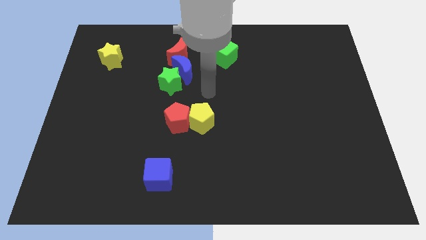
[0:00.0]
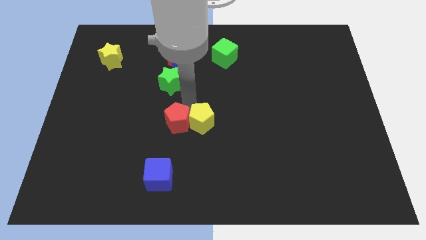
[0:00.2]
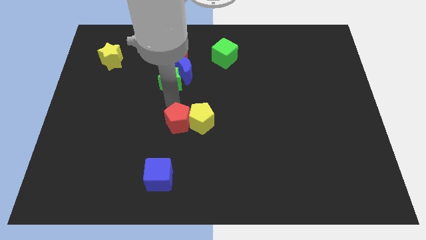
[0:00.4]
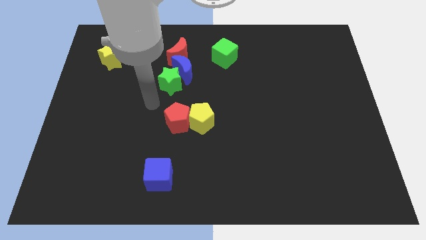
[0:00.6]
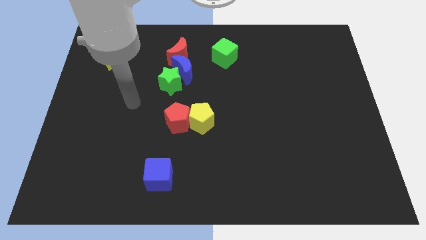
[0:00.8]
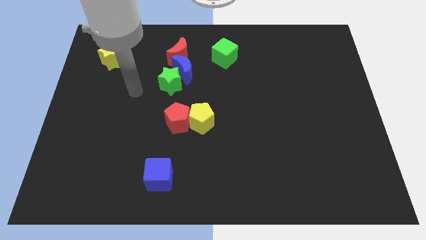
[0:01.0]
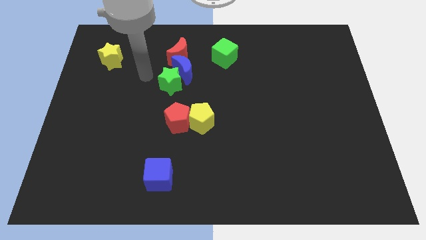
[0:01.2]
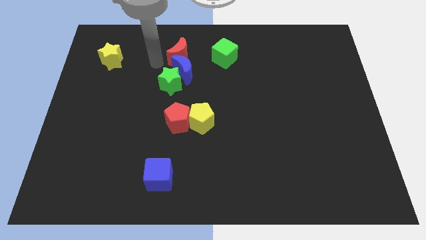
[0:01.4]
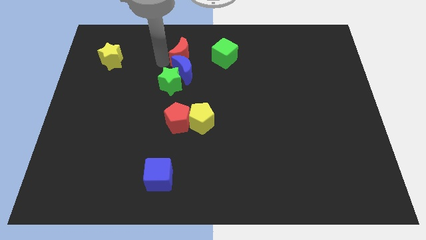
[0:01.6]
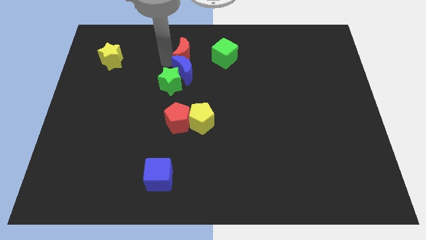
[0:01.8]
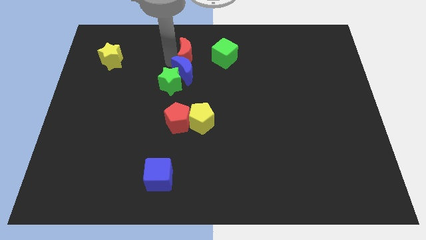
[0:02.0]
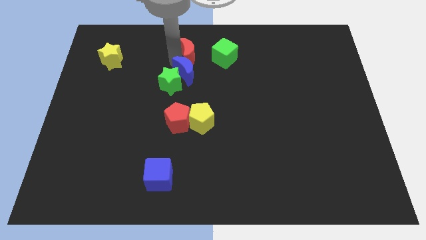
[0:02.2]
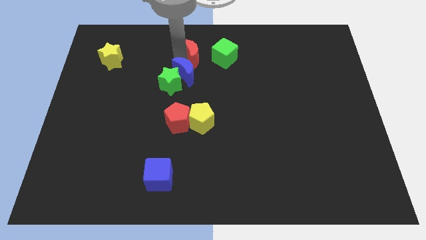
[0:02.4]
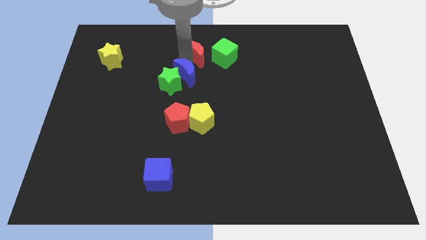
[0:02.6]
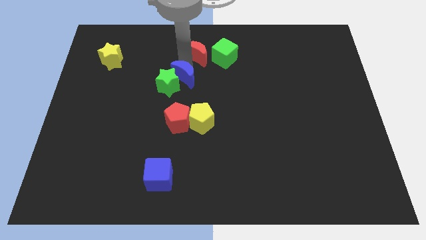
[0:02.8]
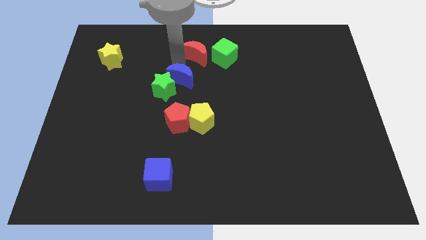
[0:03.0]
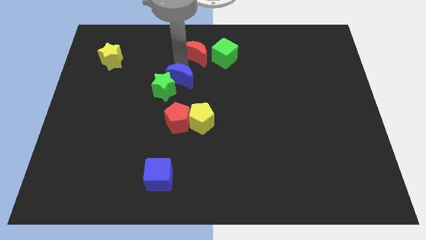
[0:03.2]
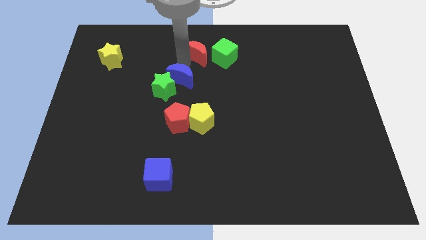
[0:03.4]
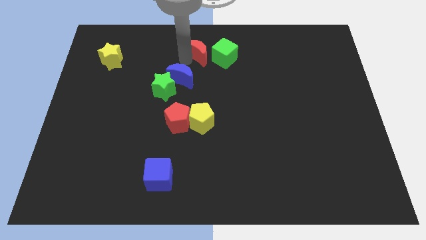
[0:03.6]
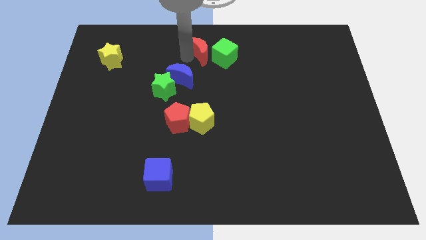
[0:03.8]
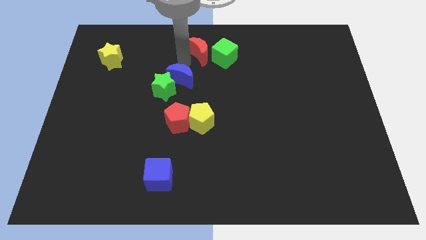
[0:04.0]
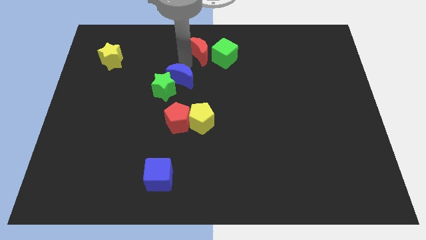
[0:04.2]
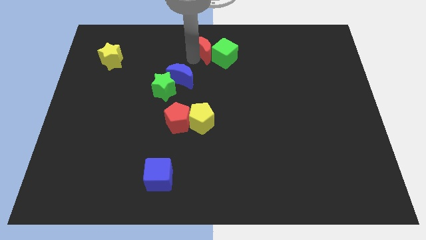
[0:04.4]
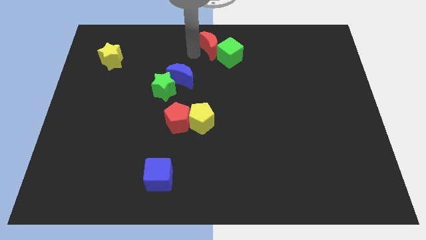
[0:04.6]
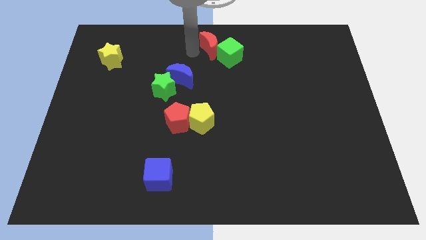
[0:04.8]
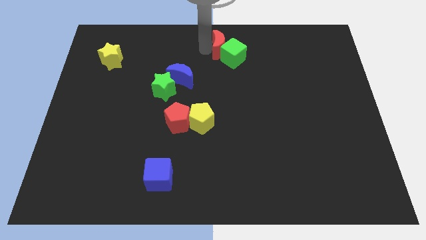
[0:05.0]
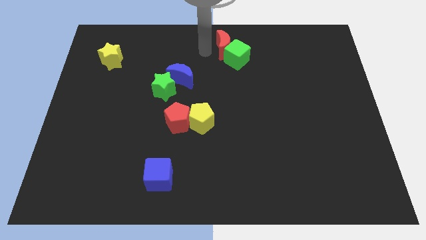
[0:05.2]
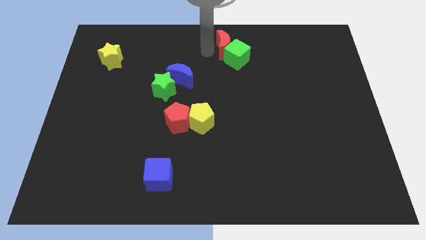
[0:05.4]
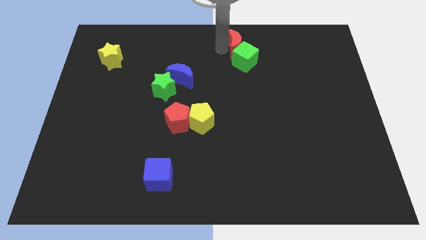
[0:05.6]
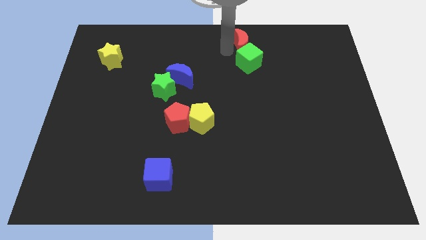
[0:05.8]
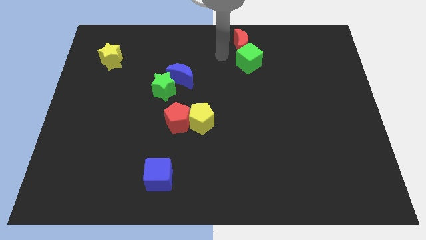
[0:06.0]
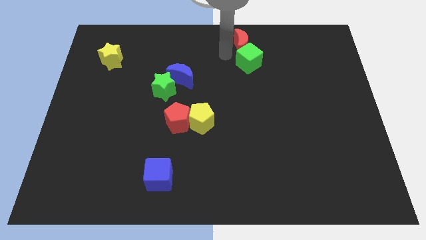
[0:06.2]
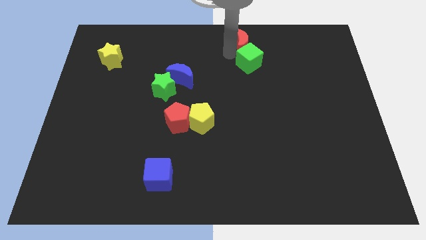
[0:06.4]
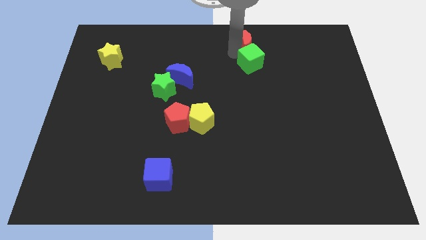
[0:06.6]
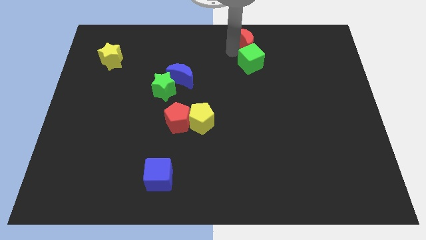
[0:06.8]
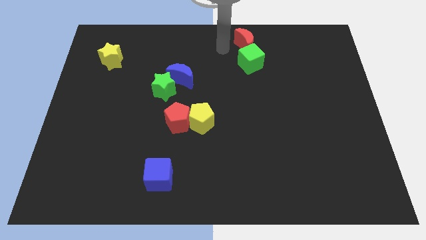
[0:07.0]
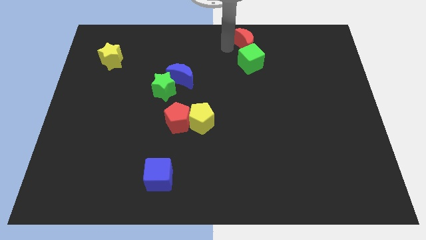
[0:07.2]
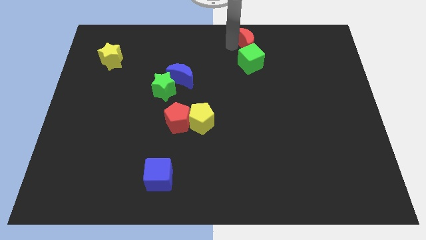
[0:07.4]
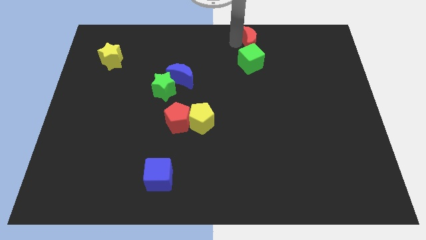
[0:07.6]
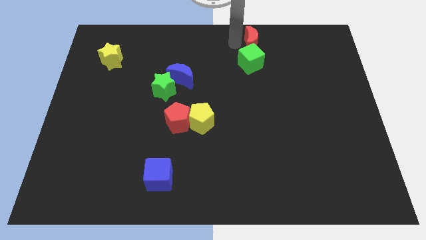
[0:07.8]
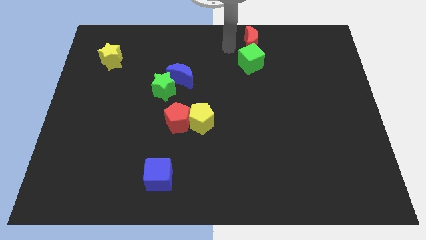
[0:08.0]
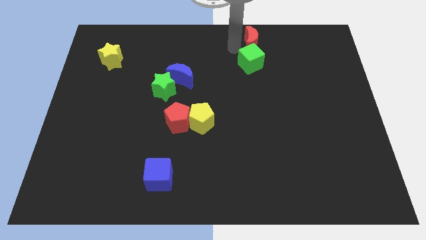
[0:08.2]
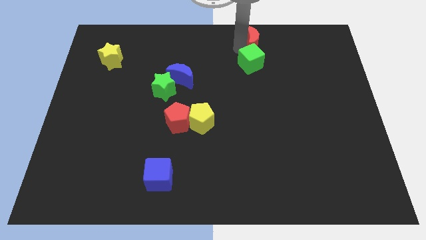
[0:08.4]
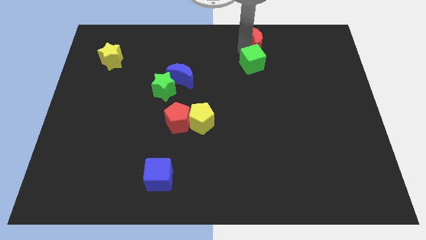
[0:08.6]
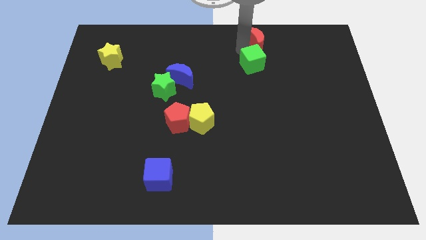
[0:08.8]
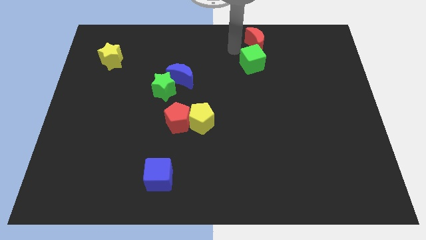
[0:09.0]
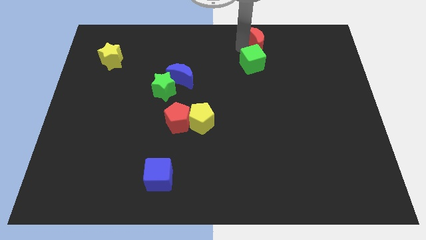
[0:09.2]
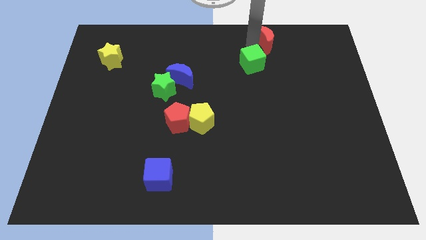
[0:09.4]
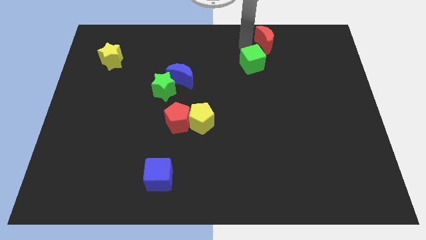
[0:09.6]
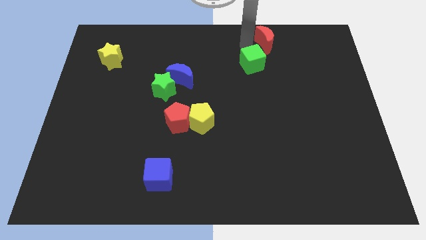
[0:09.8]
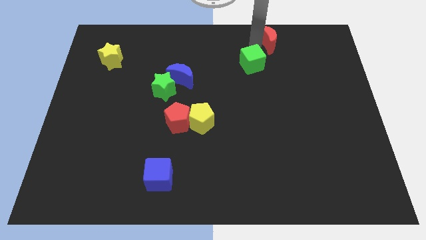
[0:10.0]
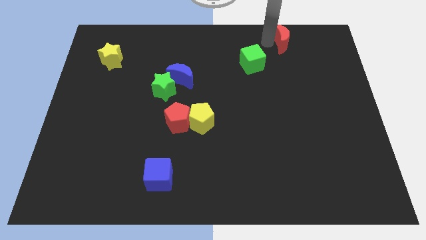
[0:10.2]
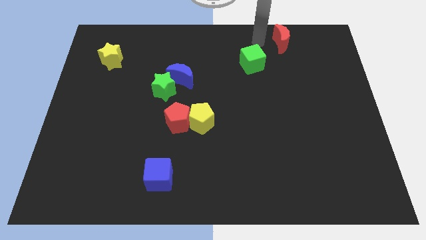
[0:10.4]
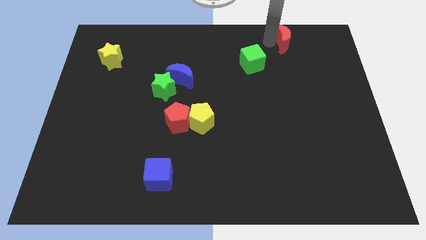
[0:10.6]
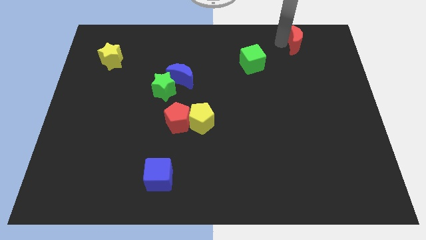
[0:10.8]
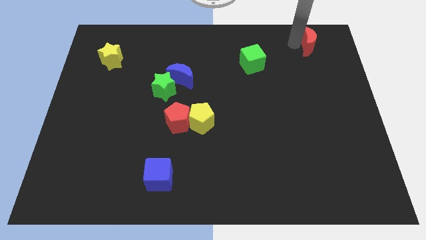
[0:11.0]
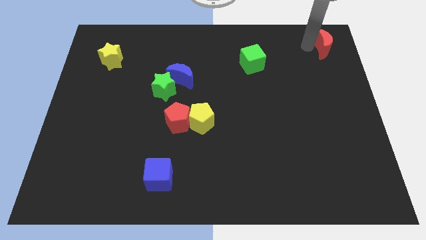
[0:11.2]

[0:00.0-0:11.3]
move the red moon to the upper right corner
